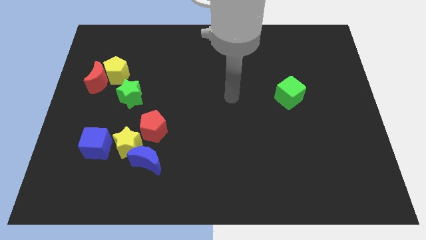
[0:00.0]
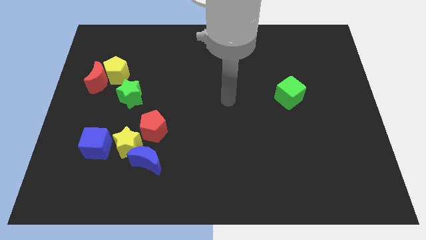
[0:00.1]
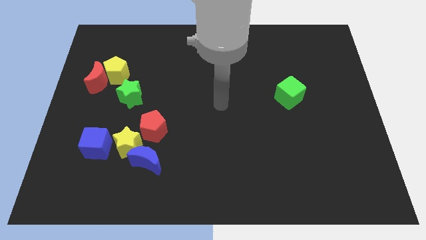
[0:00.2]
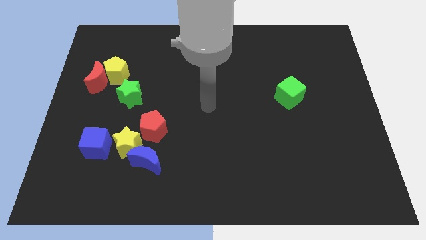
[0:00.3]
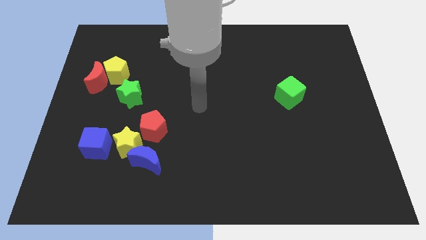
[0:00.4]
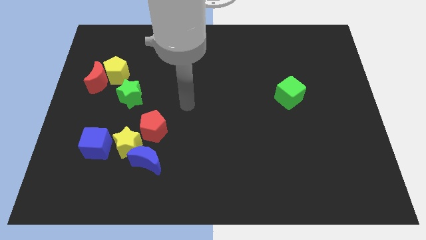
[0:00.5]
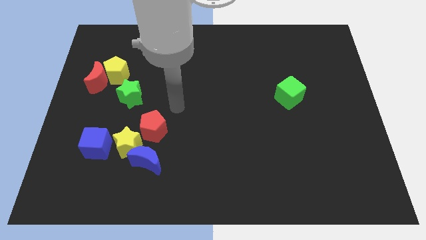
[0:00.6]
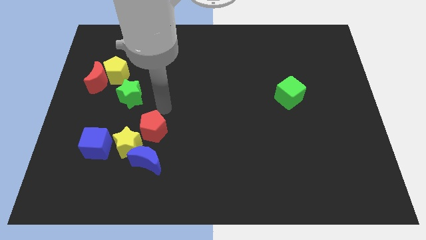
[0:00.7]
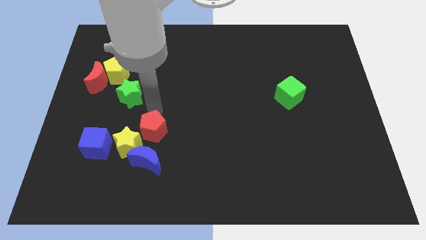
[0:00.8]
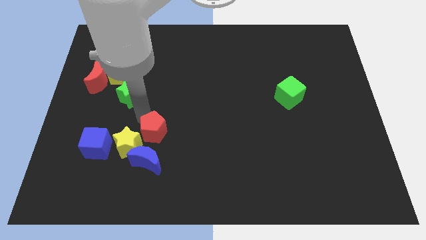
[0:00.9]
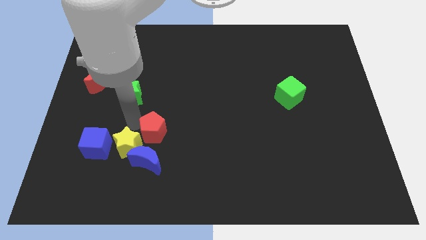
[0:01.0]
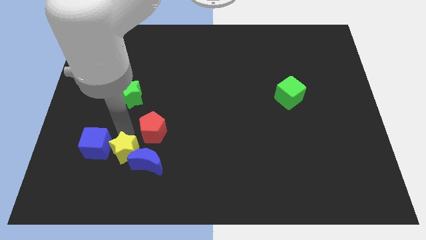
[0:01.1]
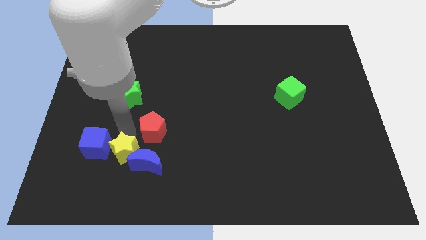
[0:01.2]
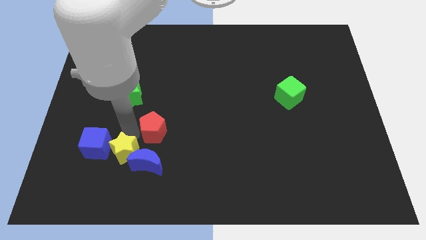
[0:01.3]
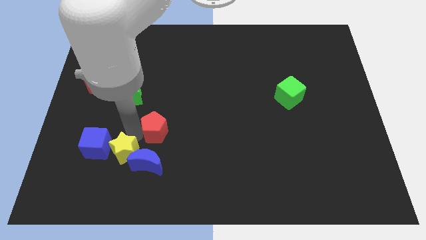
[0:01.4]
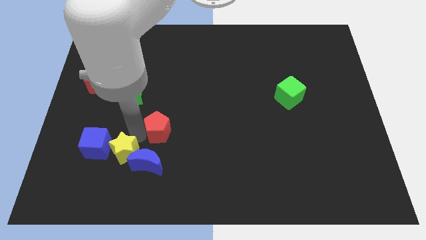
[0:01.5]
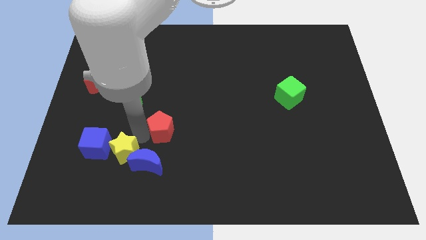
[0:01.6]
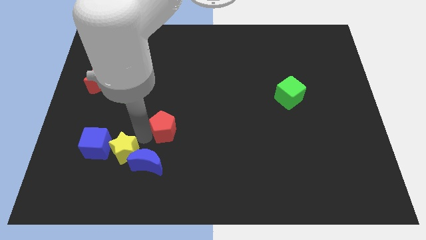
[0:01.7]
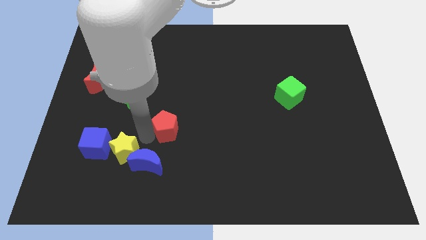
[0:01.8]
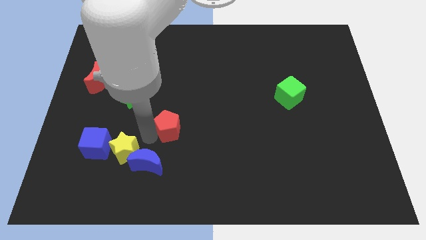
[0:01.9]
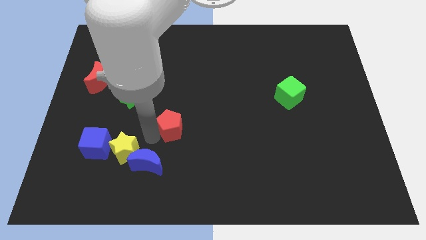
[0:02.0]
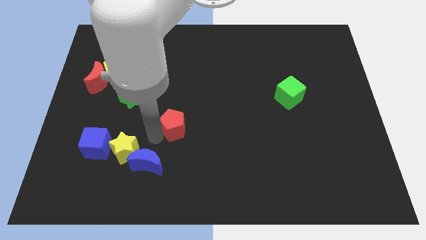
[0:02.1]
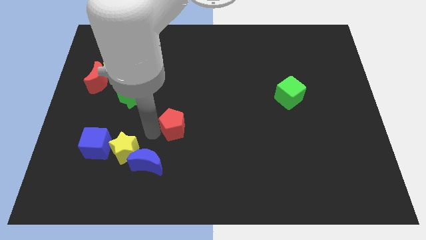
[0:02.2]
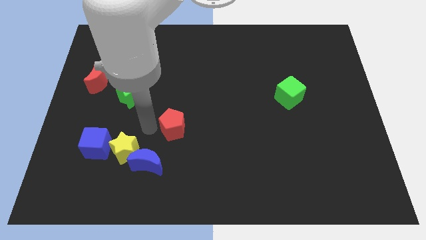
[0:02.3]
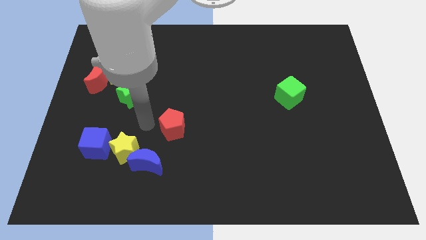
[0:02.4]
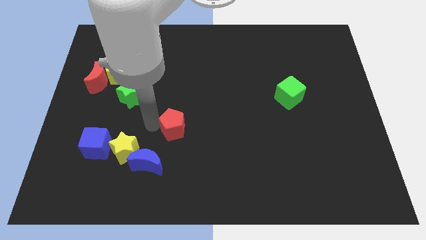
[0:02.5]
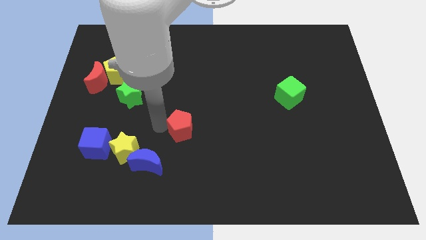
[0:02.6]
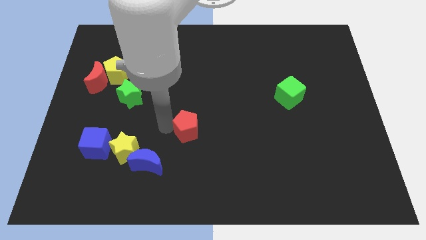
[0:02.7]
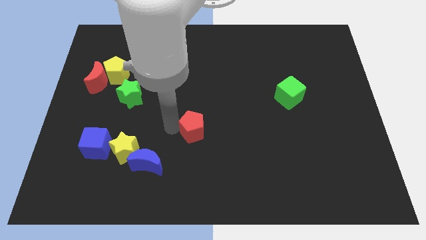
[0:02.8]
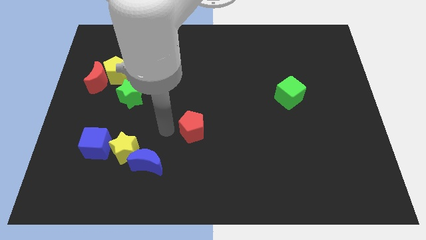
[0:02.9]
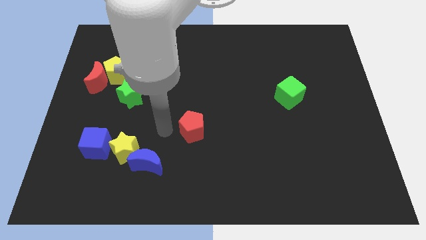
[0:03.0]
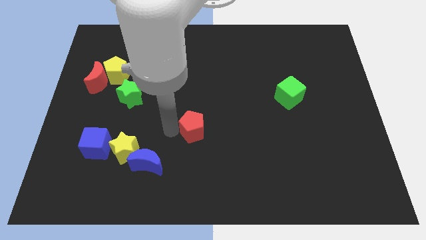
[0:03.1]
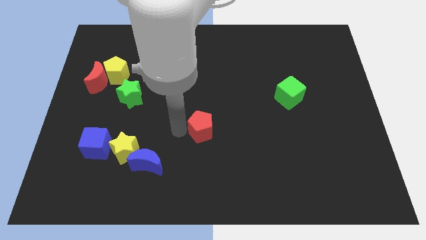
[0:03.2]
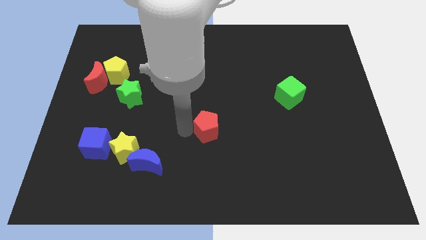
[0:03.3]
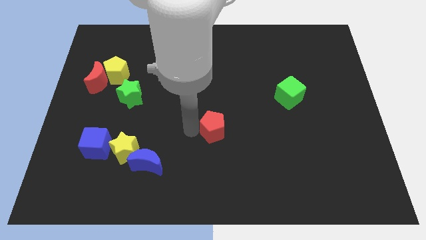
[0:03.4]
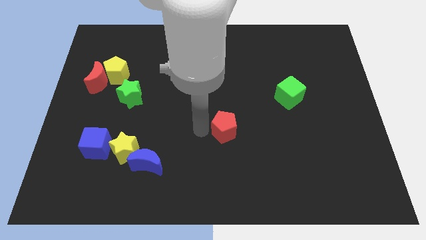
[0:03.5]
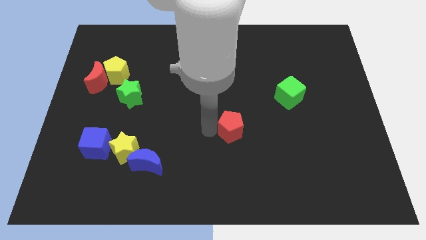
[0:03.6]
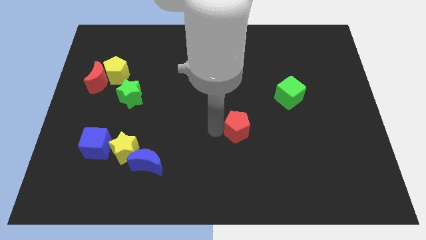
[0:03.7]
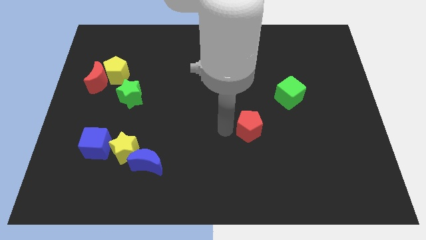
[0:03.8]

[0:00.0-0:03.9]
move the red pentagon right

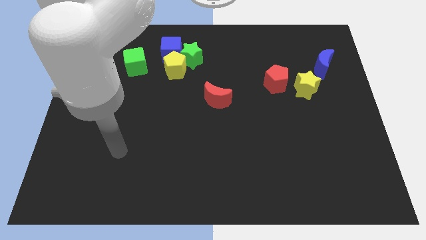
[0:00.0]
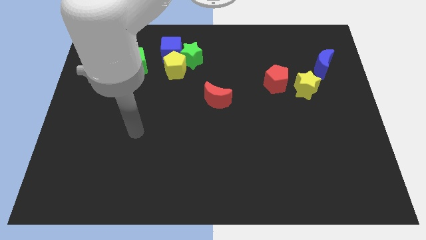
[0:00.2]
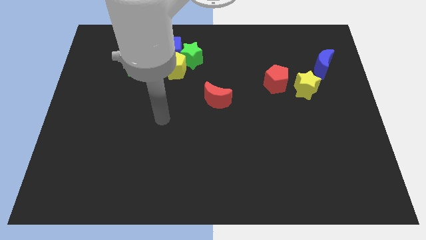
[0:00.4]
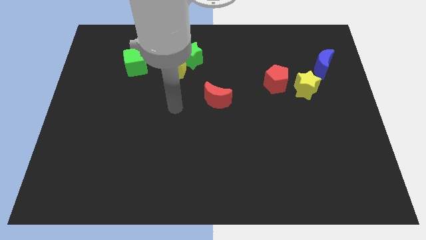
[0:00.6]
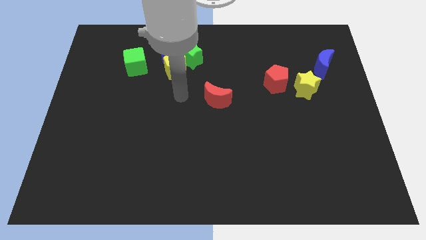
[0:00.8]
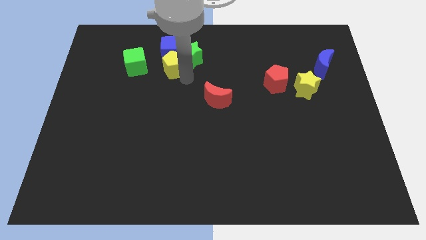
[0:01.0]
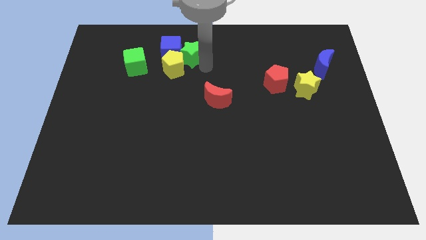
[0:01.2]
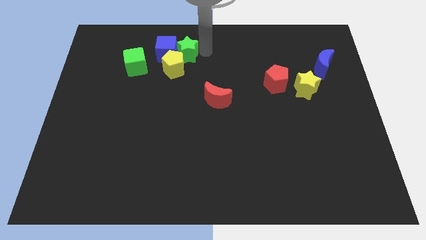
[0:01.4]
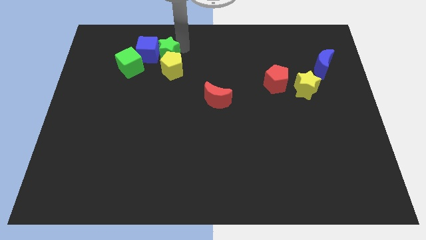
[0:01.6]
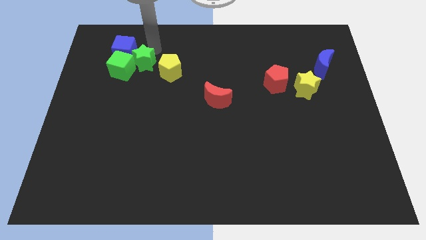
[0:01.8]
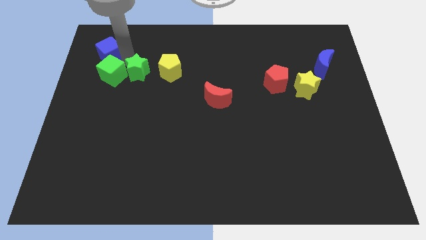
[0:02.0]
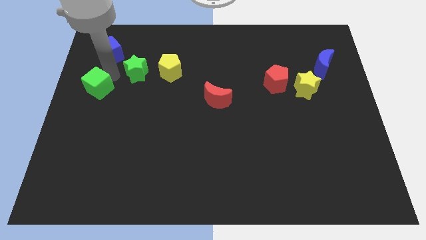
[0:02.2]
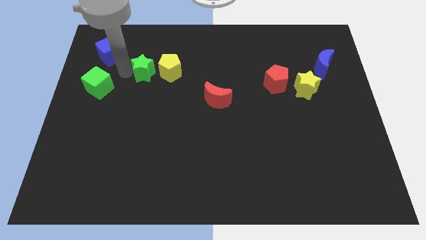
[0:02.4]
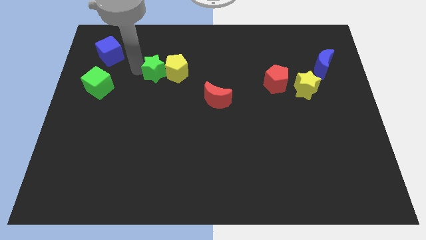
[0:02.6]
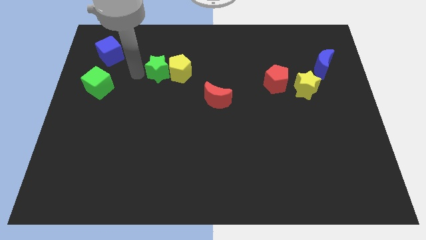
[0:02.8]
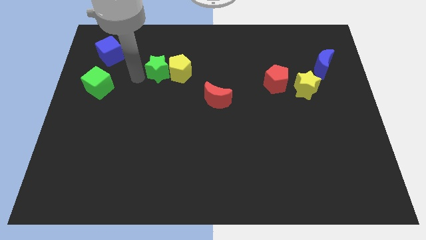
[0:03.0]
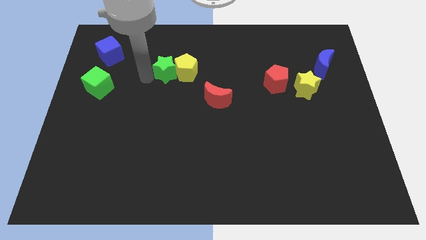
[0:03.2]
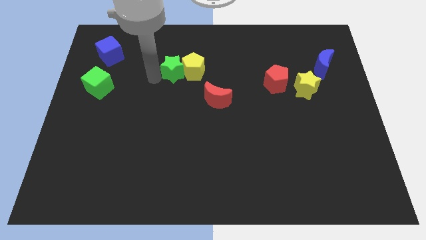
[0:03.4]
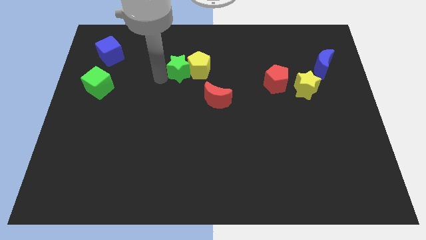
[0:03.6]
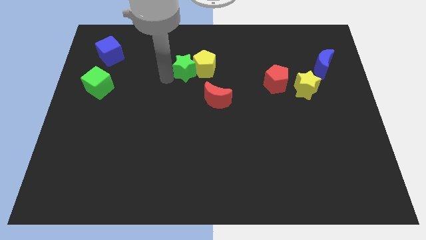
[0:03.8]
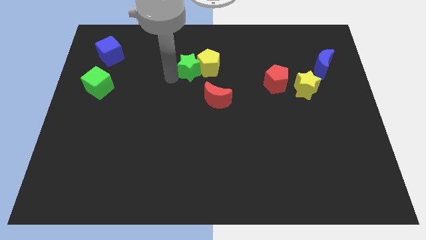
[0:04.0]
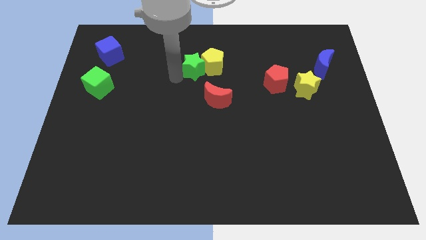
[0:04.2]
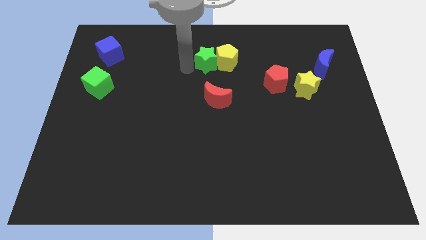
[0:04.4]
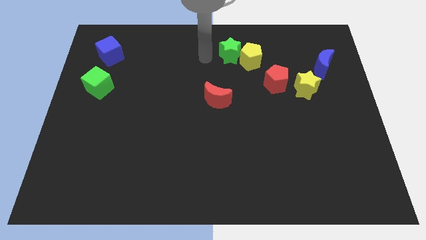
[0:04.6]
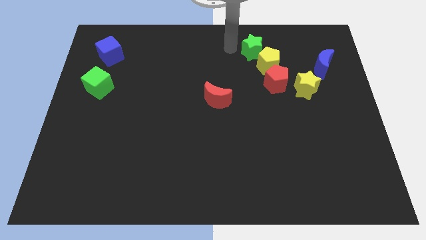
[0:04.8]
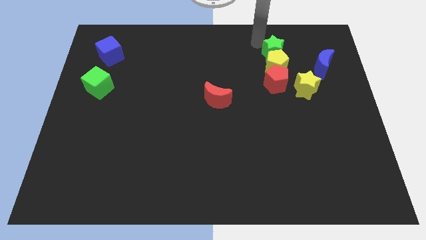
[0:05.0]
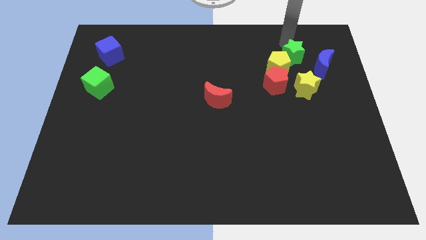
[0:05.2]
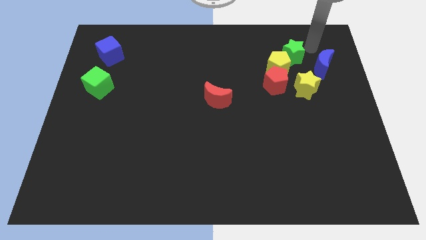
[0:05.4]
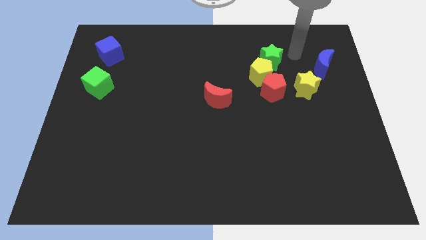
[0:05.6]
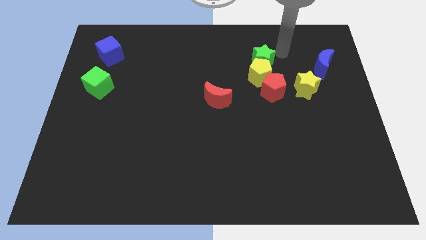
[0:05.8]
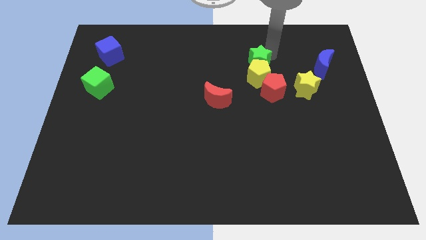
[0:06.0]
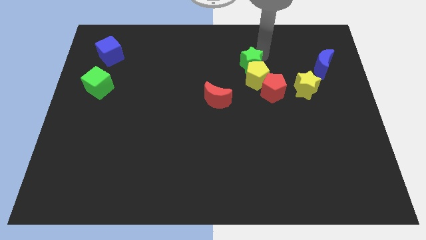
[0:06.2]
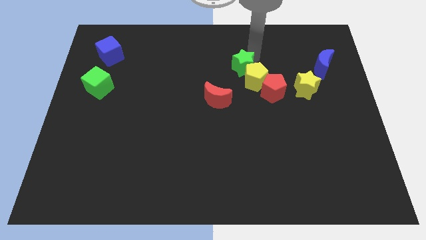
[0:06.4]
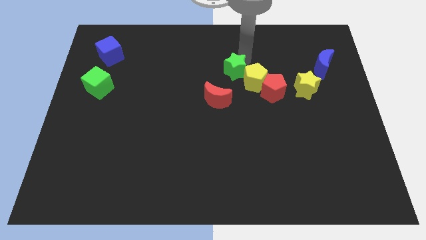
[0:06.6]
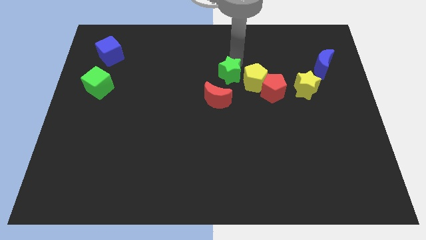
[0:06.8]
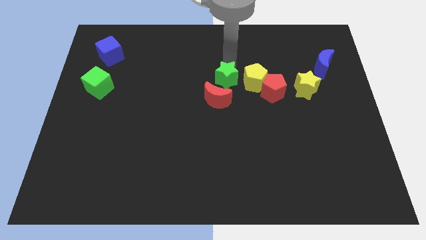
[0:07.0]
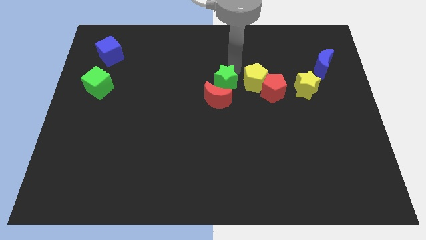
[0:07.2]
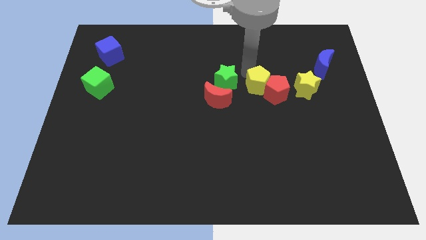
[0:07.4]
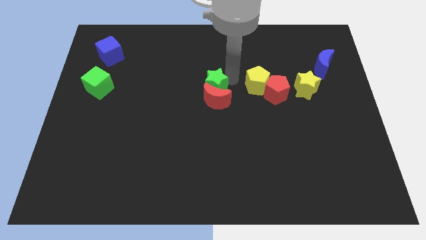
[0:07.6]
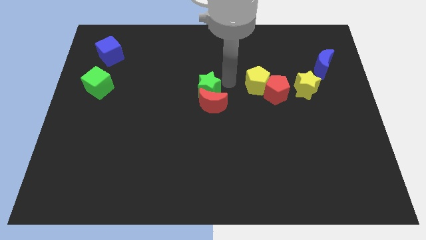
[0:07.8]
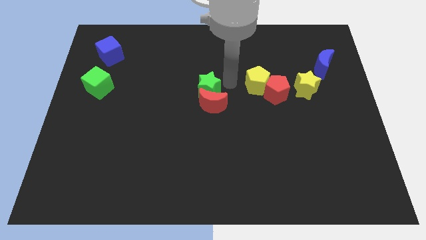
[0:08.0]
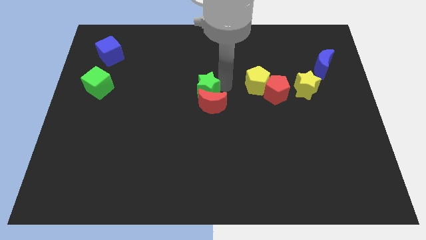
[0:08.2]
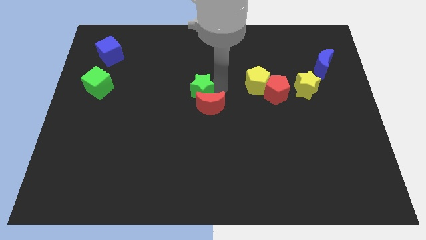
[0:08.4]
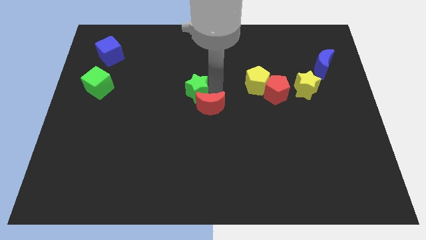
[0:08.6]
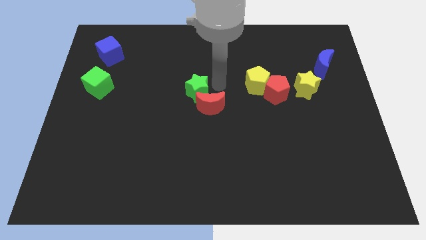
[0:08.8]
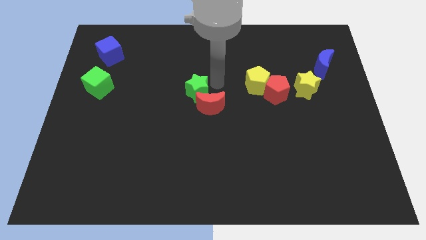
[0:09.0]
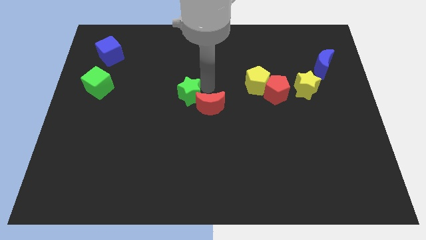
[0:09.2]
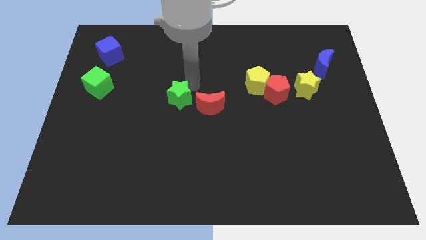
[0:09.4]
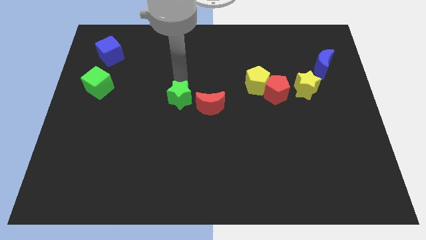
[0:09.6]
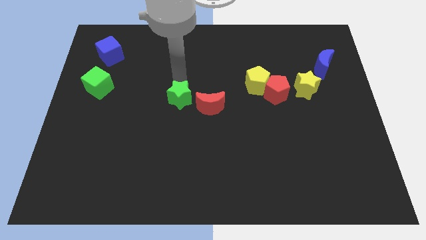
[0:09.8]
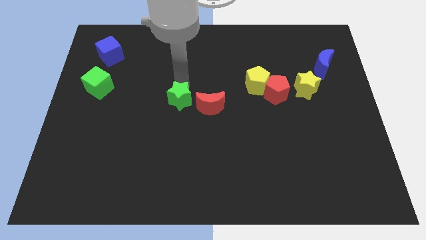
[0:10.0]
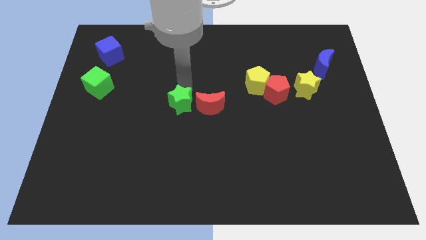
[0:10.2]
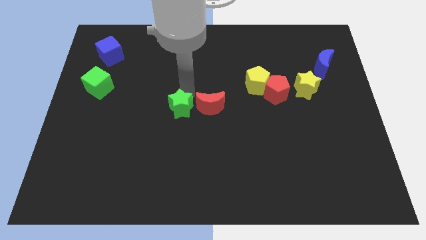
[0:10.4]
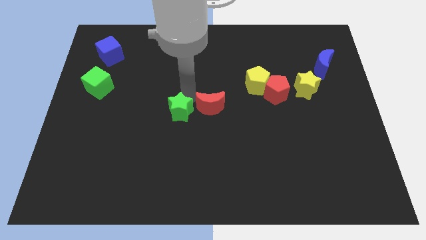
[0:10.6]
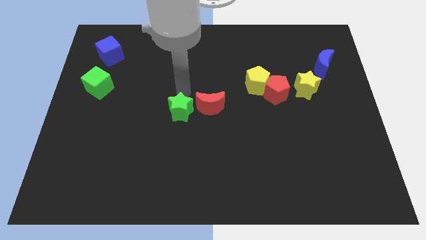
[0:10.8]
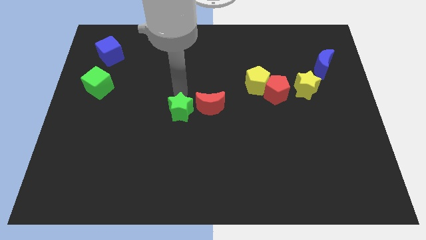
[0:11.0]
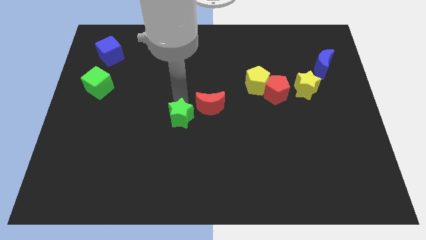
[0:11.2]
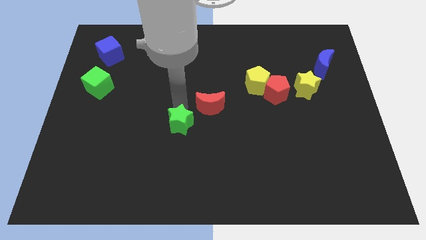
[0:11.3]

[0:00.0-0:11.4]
slide the green star downwards
